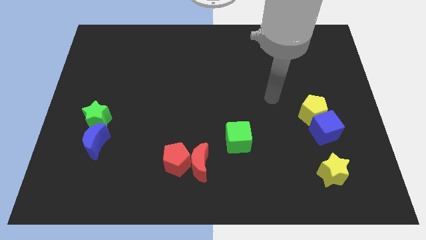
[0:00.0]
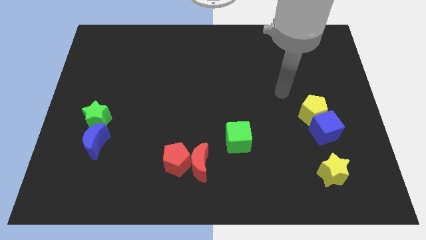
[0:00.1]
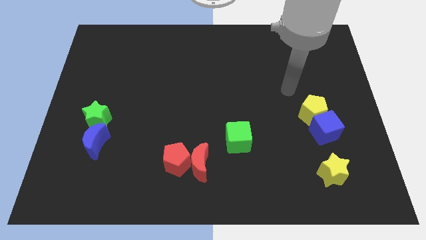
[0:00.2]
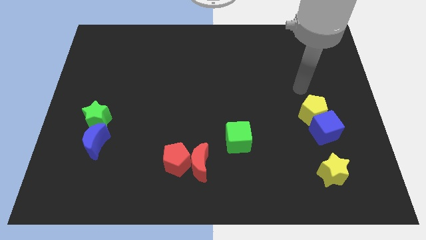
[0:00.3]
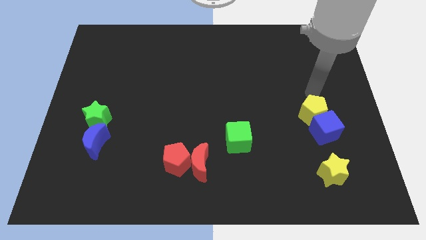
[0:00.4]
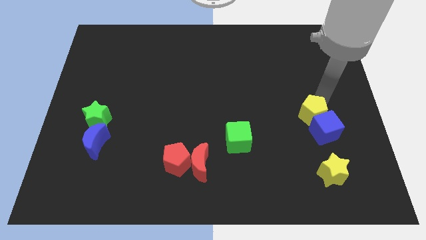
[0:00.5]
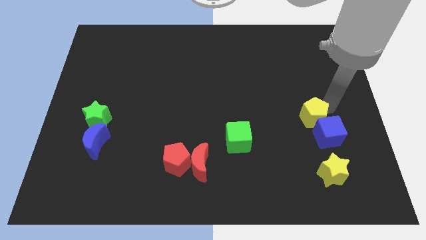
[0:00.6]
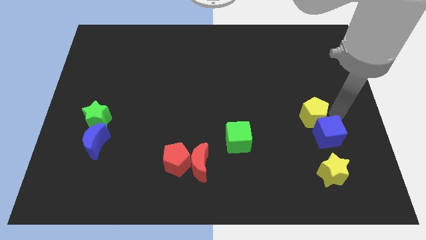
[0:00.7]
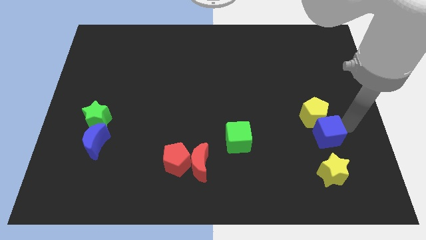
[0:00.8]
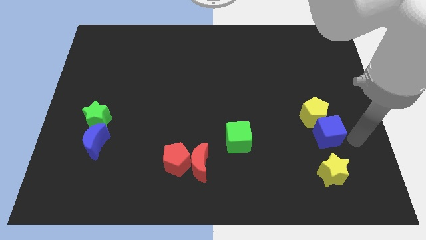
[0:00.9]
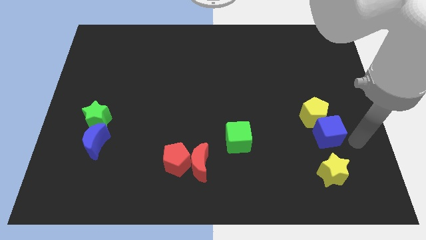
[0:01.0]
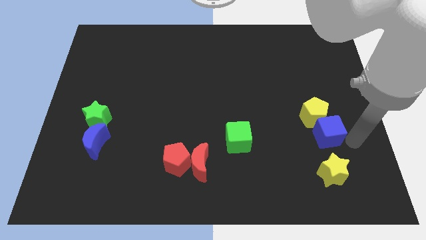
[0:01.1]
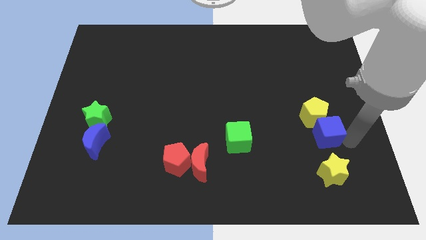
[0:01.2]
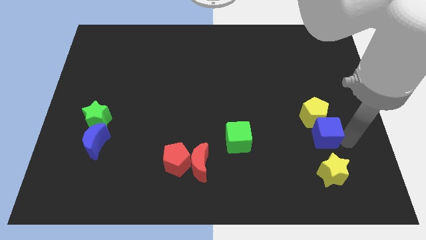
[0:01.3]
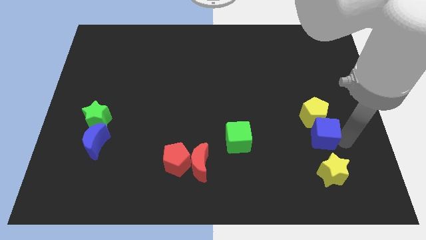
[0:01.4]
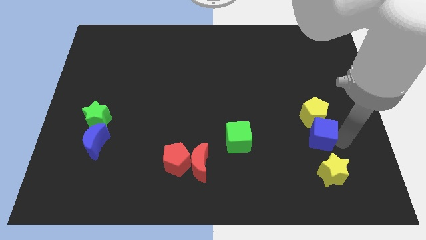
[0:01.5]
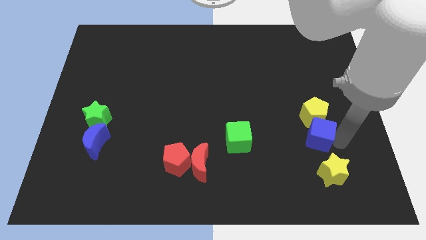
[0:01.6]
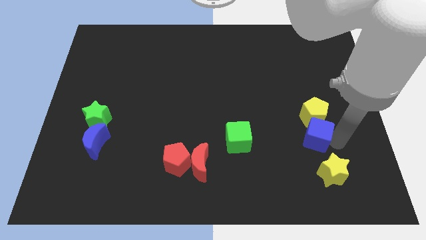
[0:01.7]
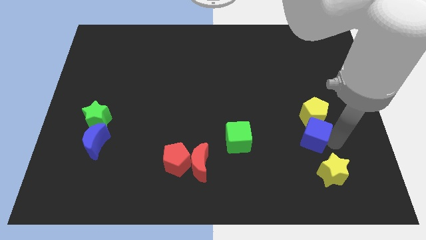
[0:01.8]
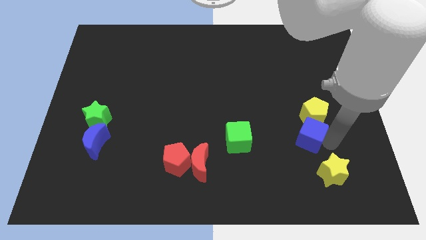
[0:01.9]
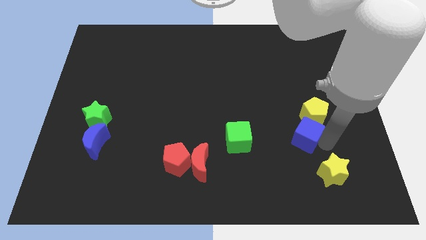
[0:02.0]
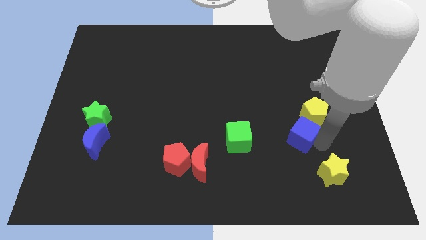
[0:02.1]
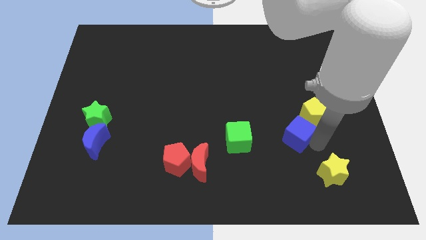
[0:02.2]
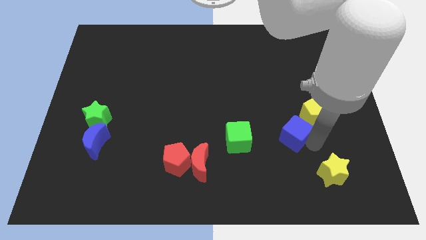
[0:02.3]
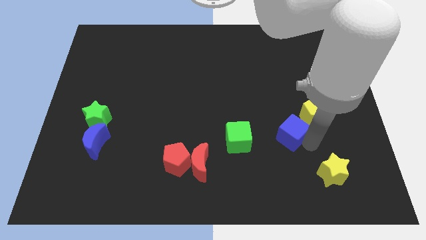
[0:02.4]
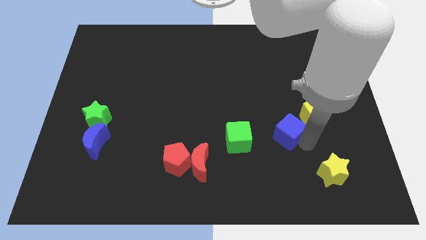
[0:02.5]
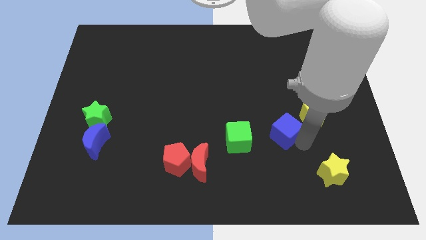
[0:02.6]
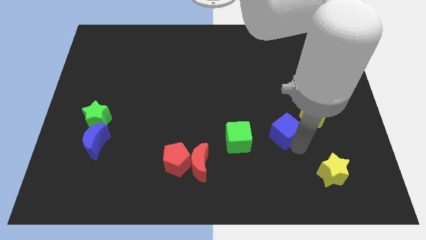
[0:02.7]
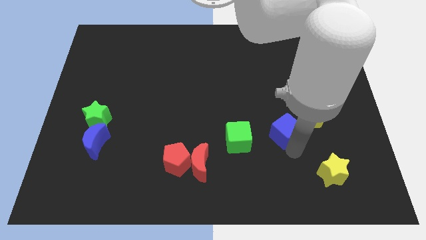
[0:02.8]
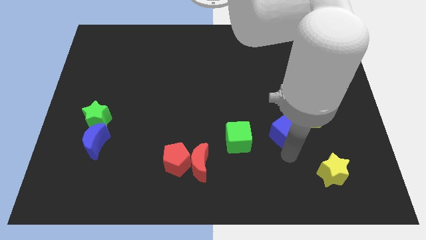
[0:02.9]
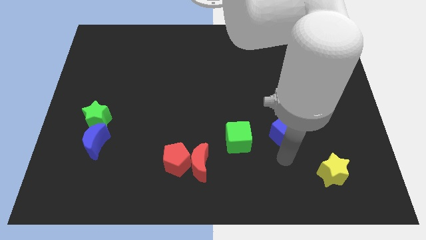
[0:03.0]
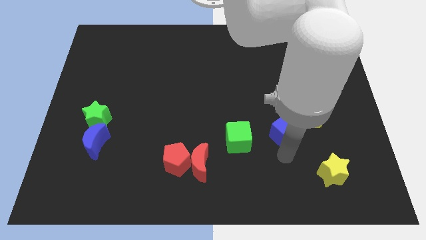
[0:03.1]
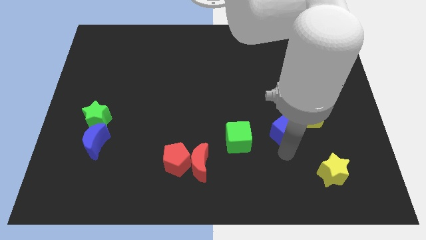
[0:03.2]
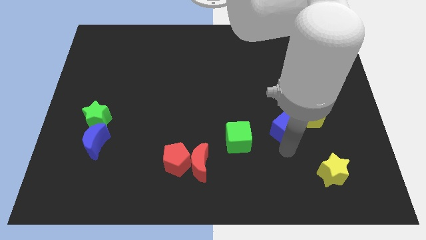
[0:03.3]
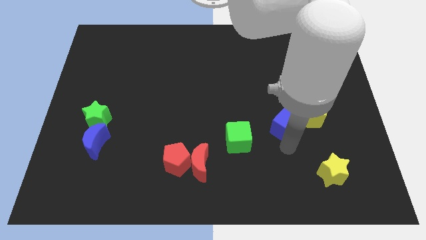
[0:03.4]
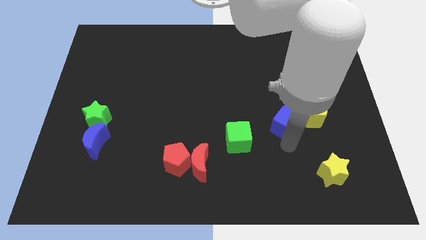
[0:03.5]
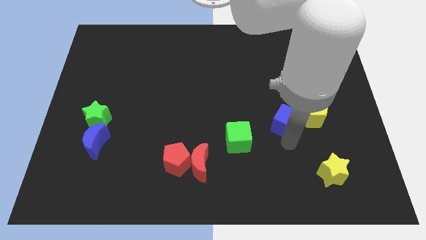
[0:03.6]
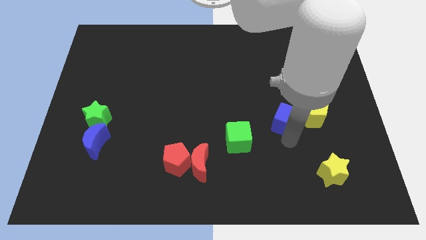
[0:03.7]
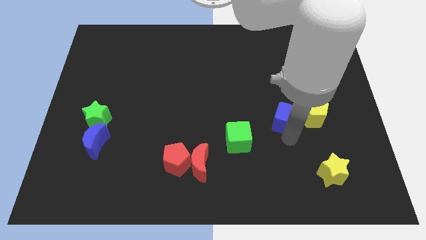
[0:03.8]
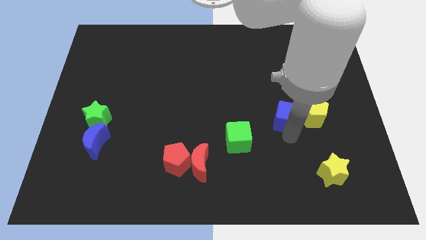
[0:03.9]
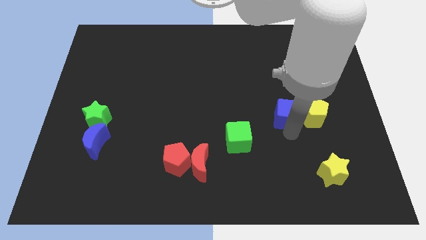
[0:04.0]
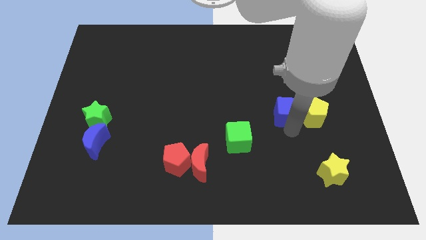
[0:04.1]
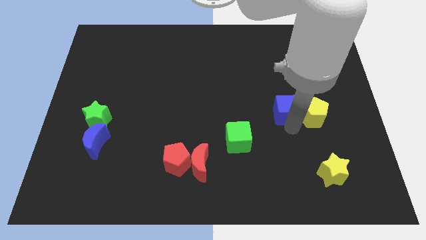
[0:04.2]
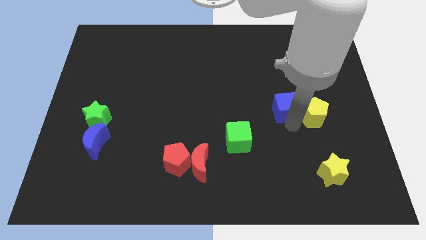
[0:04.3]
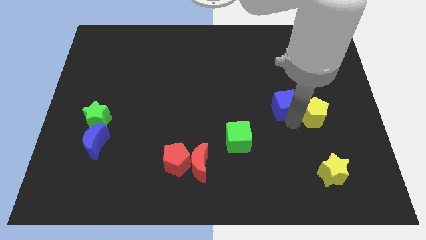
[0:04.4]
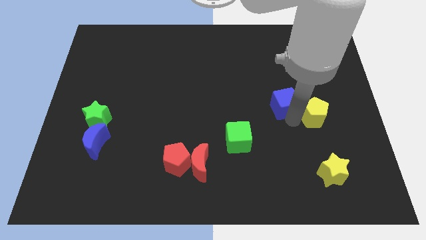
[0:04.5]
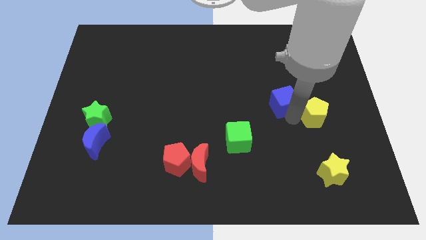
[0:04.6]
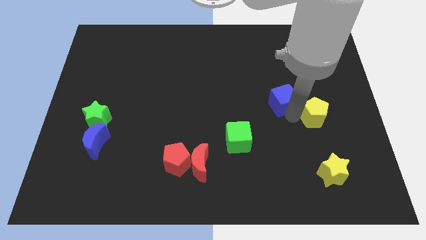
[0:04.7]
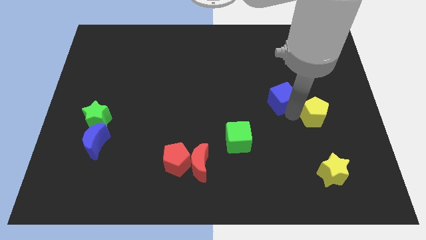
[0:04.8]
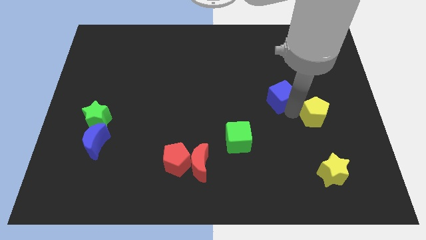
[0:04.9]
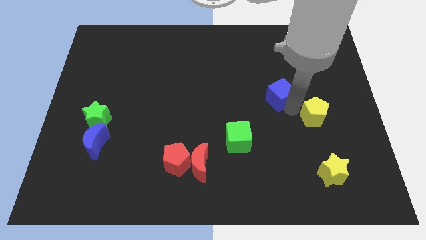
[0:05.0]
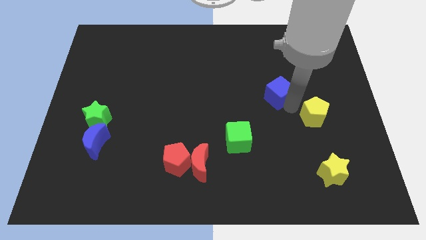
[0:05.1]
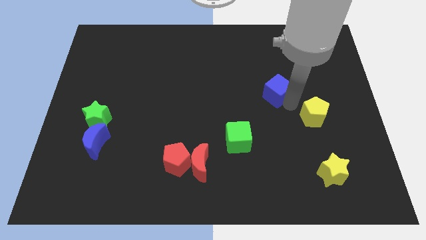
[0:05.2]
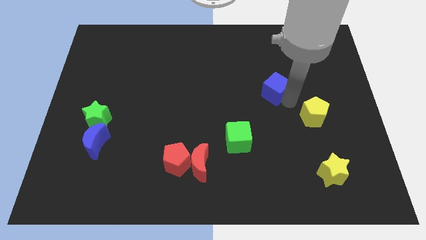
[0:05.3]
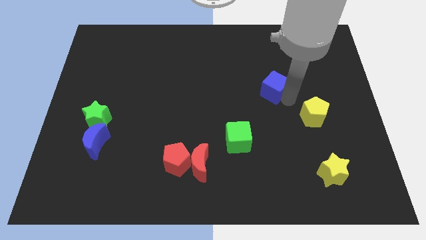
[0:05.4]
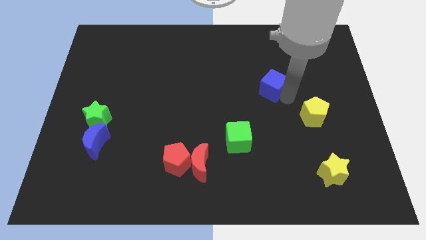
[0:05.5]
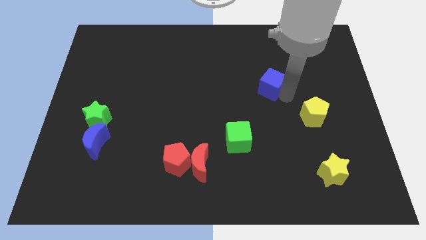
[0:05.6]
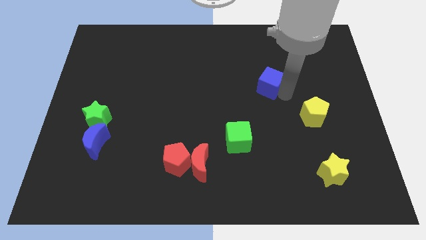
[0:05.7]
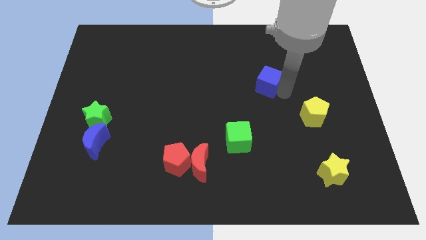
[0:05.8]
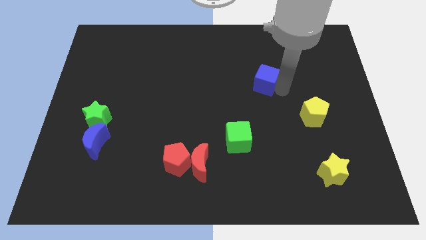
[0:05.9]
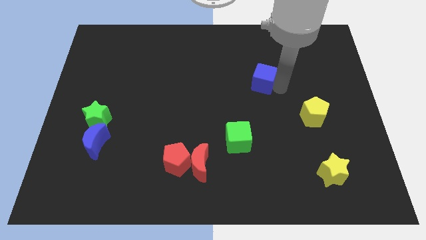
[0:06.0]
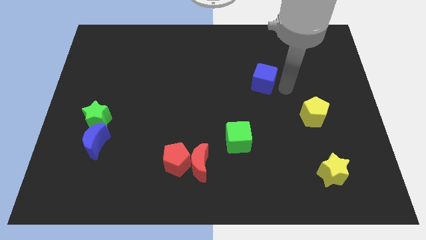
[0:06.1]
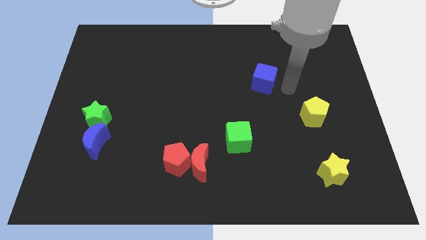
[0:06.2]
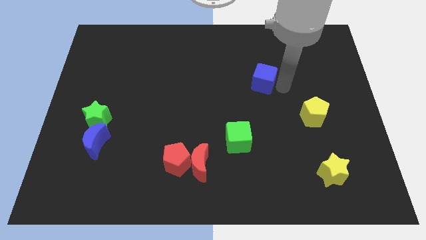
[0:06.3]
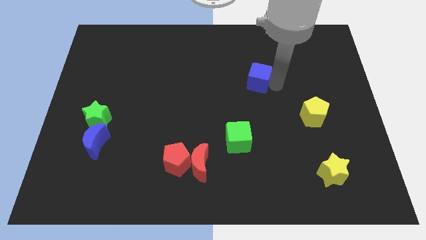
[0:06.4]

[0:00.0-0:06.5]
move the blue cube upwards and left diagonally

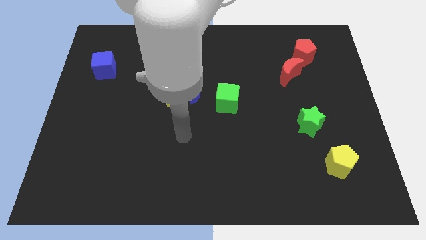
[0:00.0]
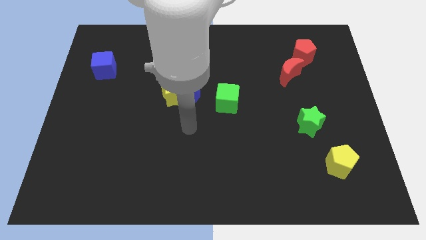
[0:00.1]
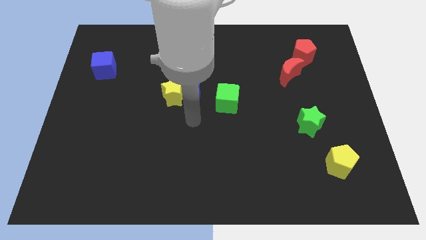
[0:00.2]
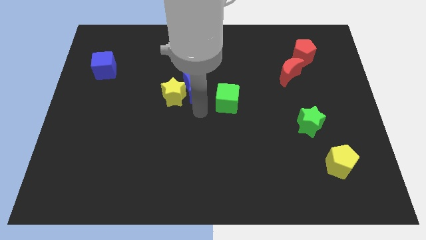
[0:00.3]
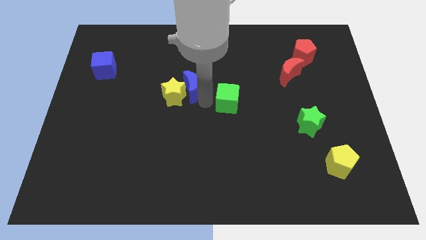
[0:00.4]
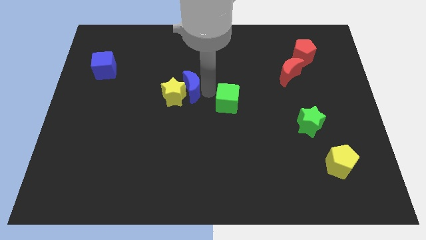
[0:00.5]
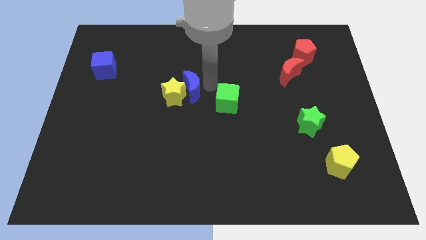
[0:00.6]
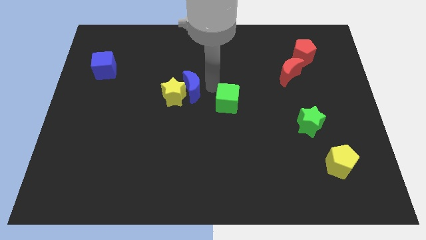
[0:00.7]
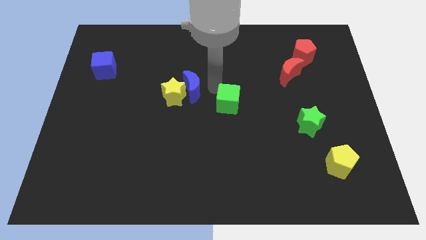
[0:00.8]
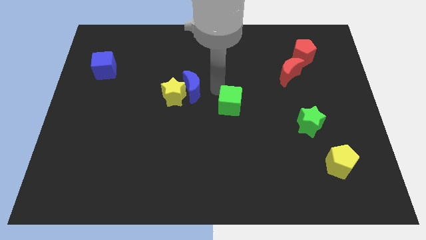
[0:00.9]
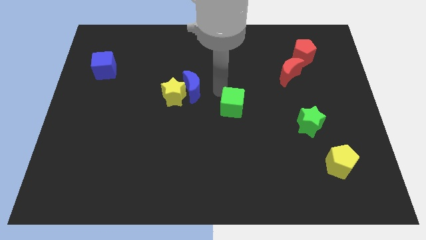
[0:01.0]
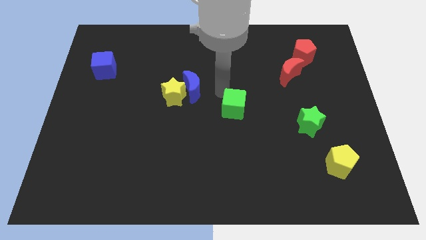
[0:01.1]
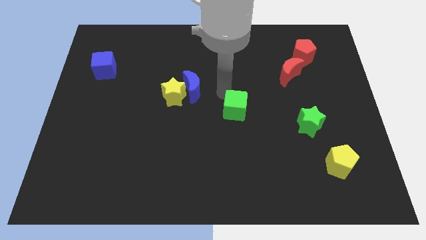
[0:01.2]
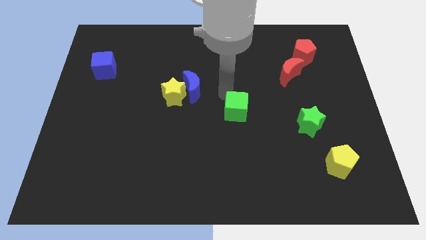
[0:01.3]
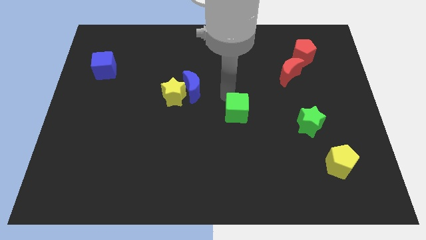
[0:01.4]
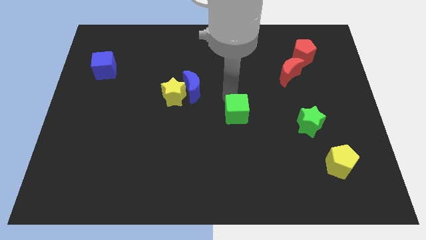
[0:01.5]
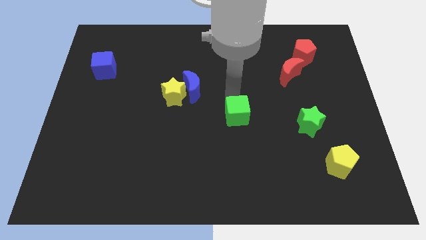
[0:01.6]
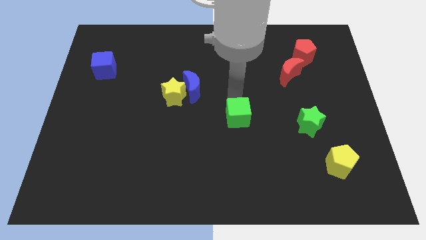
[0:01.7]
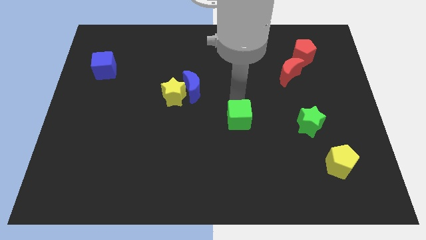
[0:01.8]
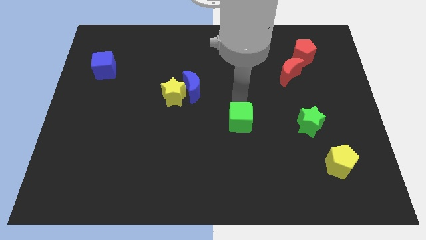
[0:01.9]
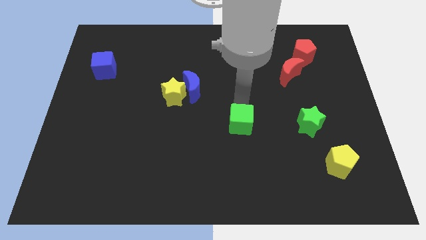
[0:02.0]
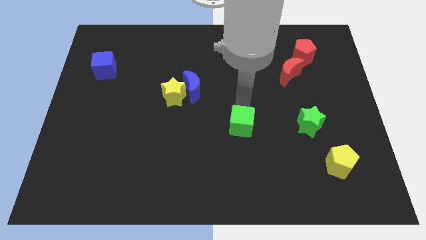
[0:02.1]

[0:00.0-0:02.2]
push the green cube somewhat downwards and right diagonally
